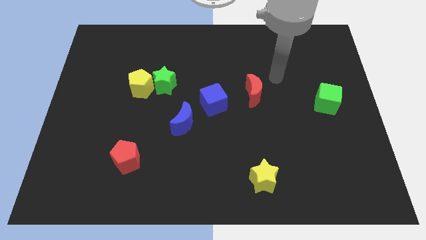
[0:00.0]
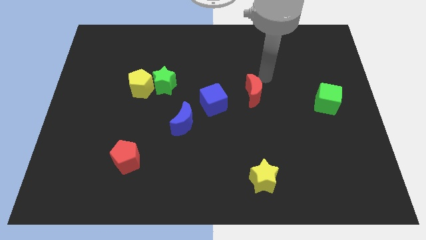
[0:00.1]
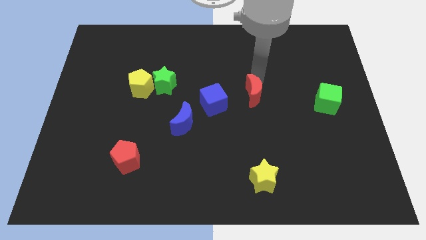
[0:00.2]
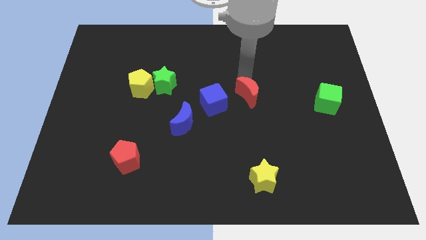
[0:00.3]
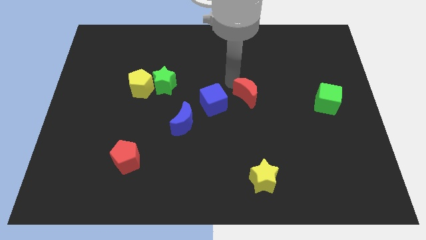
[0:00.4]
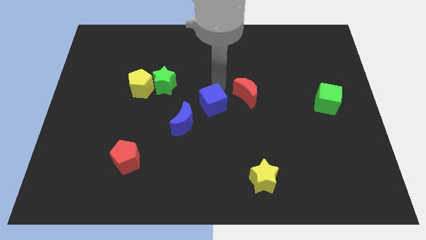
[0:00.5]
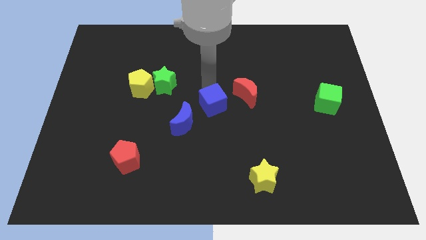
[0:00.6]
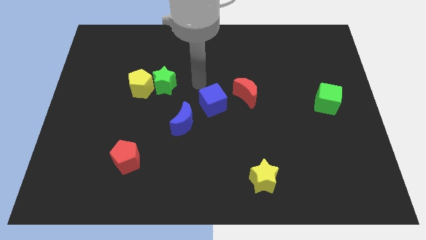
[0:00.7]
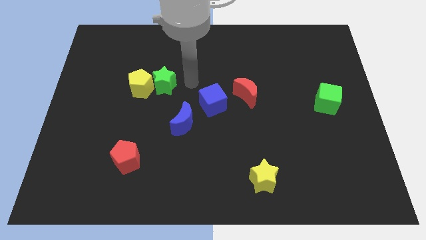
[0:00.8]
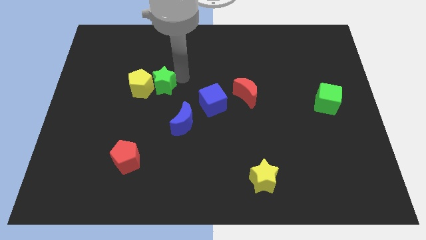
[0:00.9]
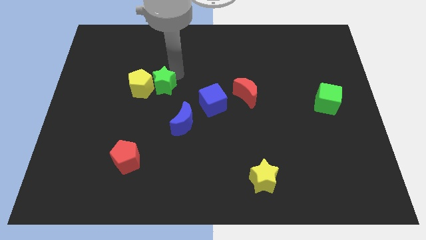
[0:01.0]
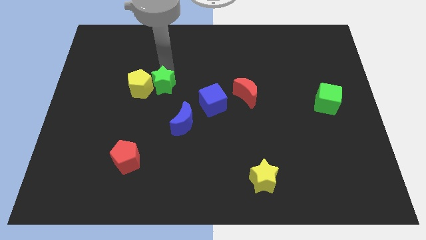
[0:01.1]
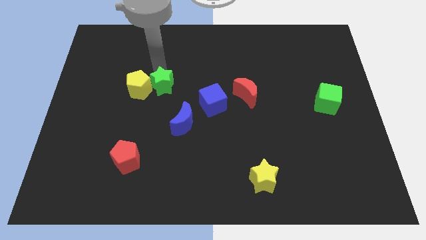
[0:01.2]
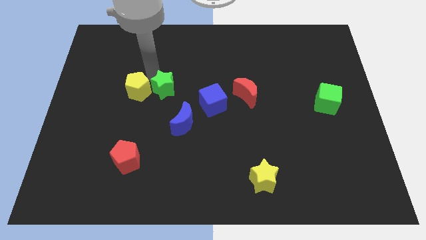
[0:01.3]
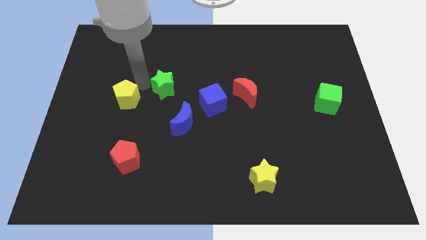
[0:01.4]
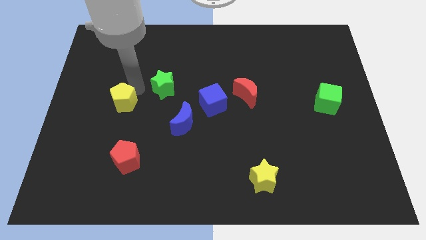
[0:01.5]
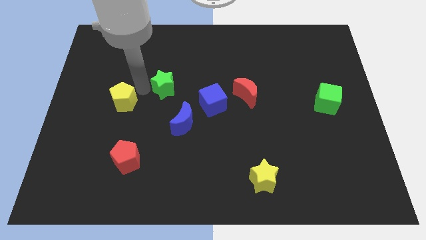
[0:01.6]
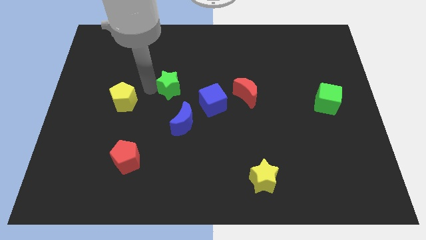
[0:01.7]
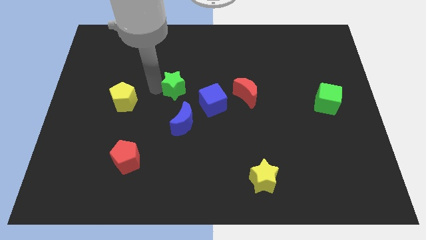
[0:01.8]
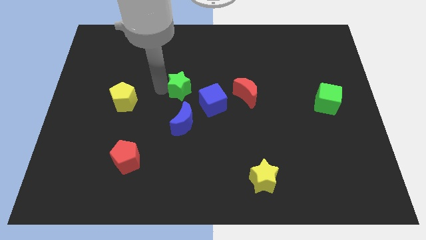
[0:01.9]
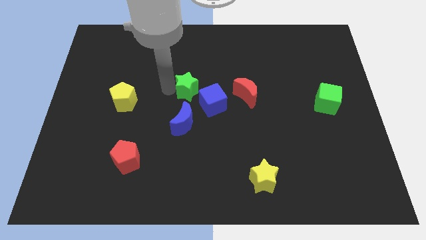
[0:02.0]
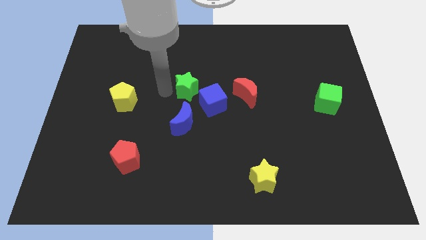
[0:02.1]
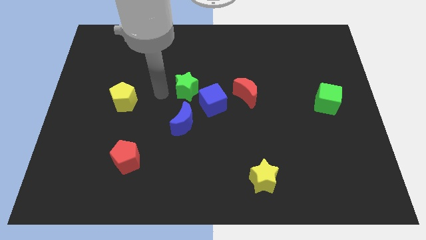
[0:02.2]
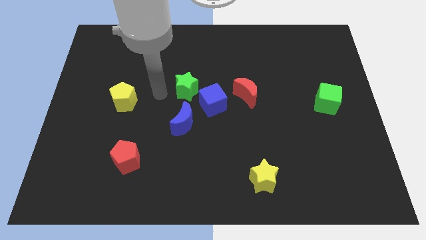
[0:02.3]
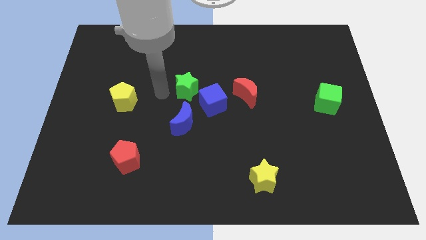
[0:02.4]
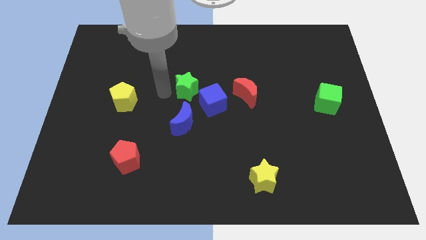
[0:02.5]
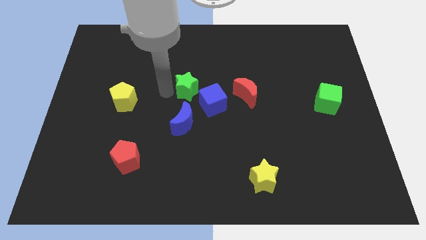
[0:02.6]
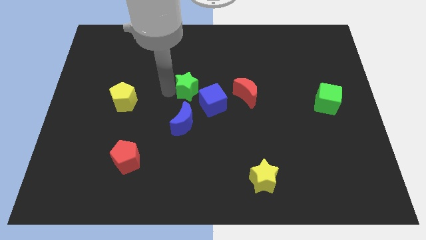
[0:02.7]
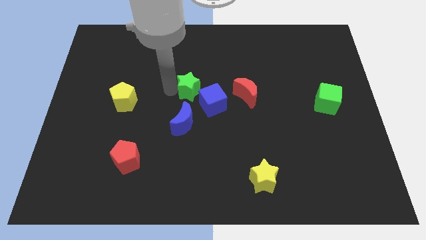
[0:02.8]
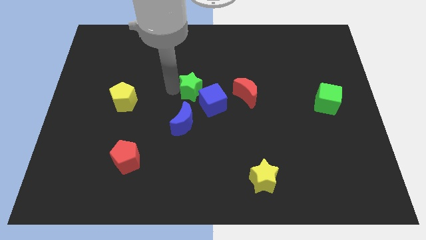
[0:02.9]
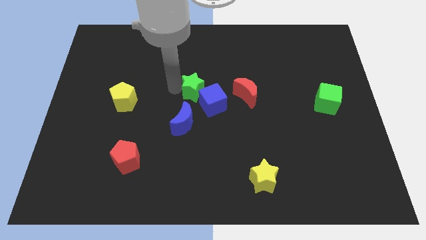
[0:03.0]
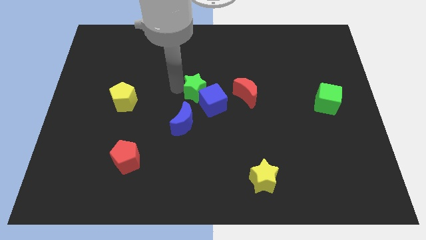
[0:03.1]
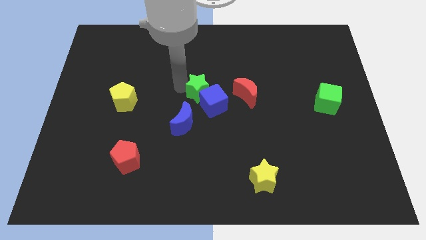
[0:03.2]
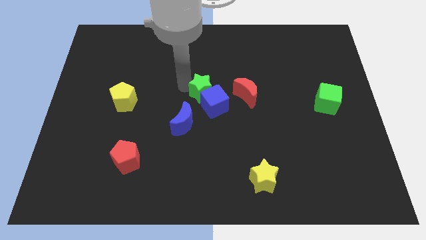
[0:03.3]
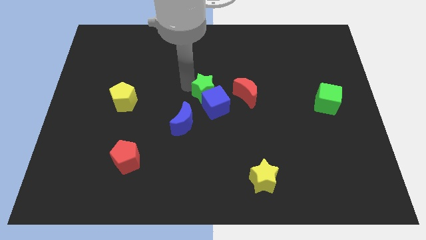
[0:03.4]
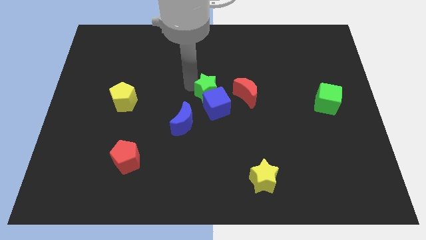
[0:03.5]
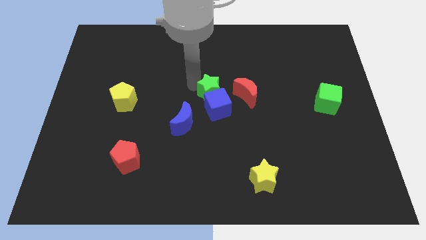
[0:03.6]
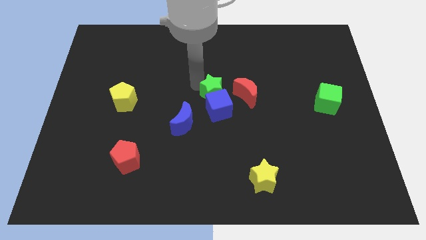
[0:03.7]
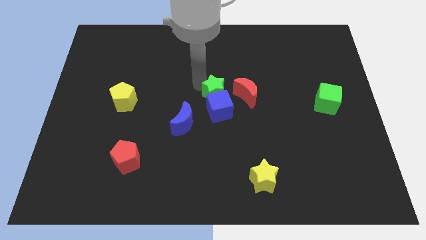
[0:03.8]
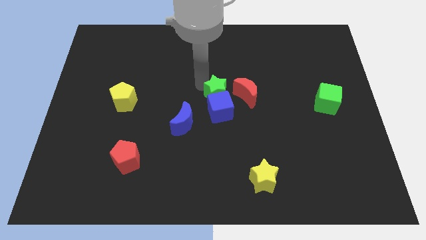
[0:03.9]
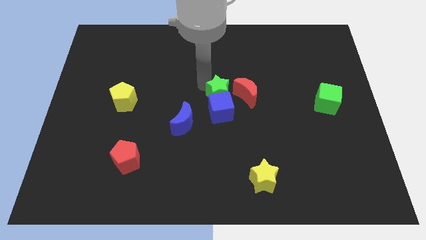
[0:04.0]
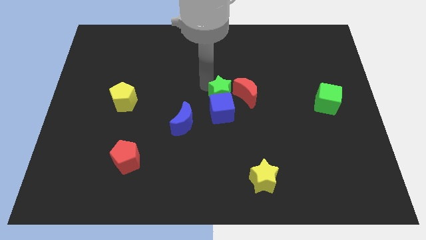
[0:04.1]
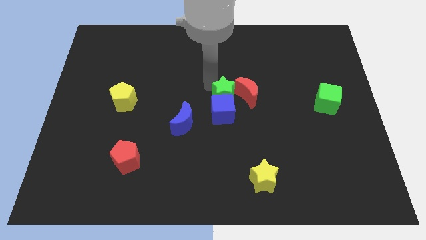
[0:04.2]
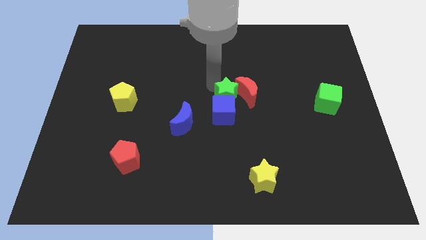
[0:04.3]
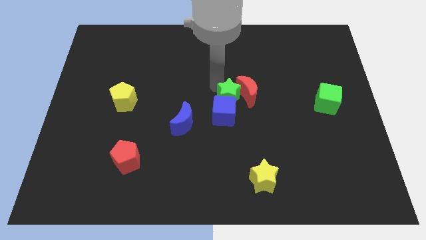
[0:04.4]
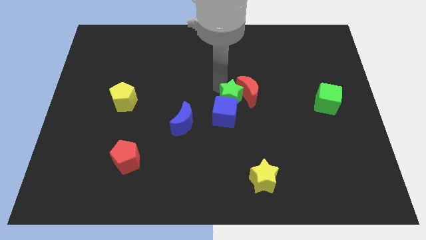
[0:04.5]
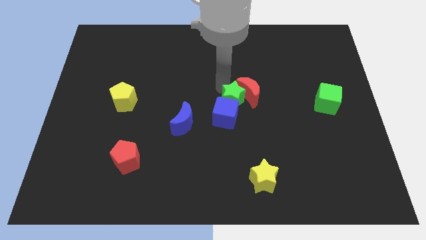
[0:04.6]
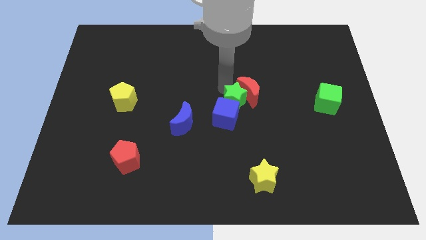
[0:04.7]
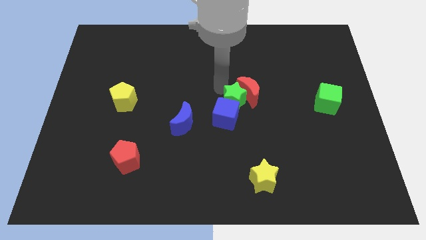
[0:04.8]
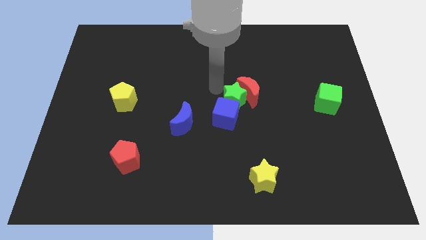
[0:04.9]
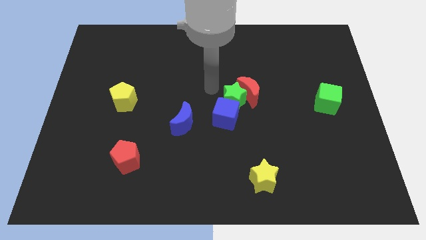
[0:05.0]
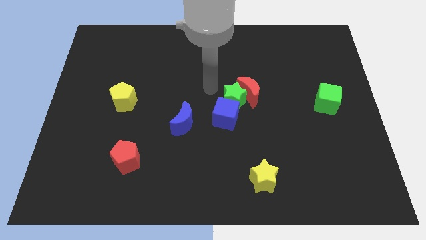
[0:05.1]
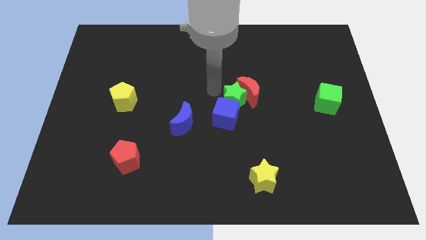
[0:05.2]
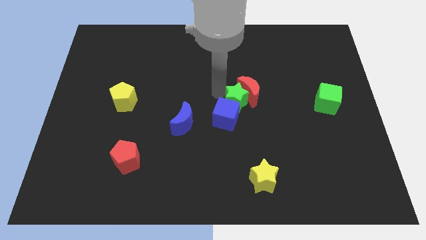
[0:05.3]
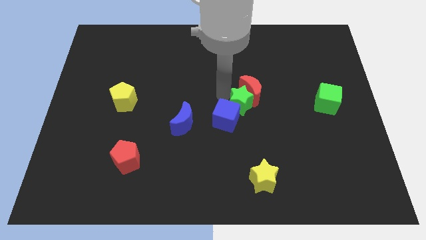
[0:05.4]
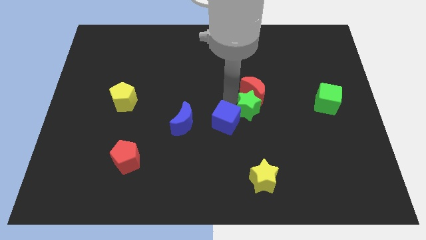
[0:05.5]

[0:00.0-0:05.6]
put the green star diagonally down and to the right of the red moon

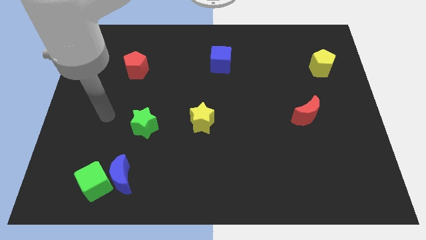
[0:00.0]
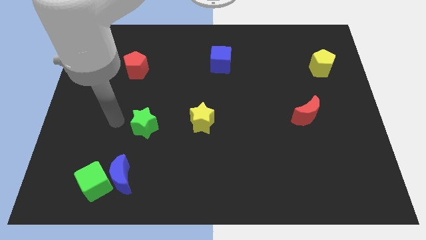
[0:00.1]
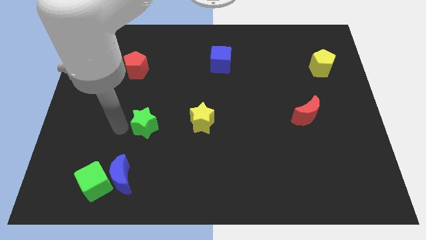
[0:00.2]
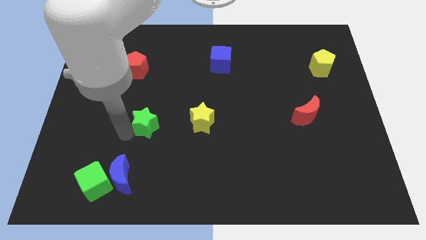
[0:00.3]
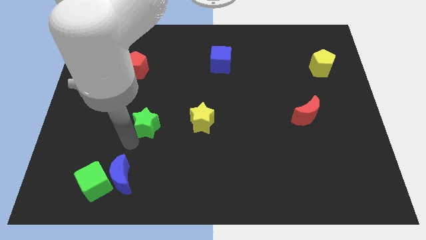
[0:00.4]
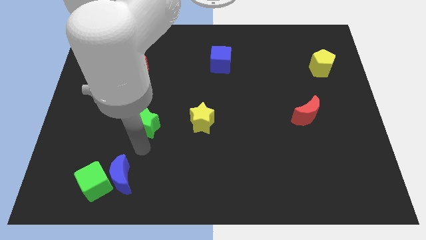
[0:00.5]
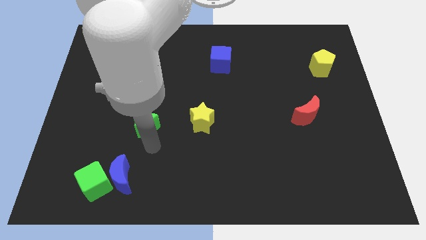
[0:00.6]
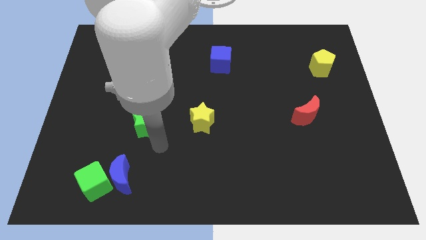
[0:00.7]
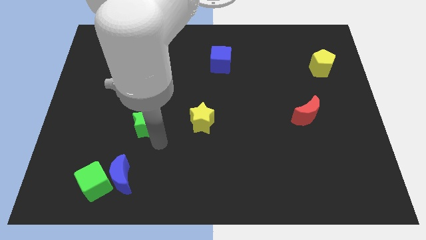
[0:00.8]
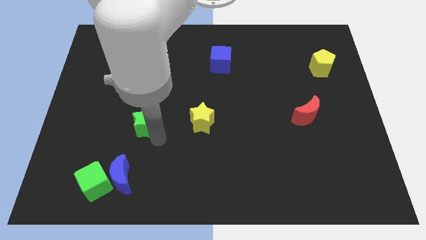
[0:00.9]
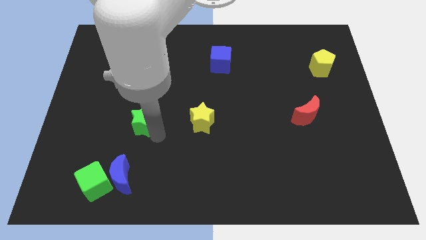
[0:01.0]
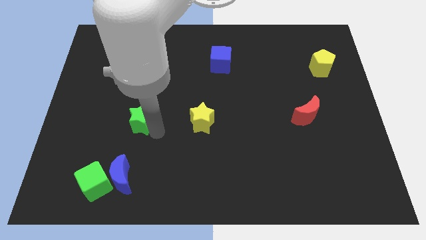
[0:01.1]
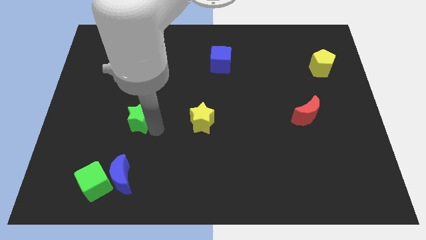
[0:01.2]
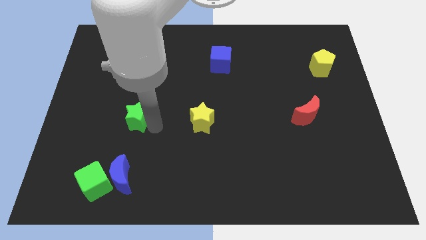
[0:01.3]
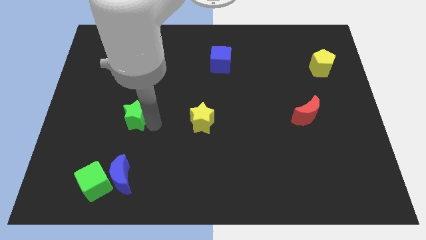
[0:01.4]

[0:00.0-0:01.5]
put the green star below the red pentagon
